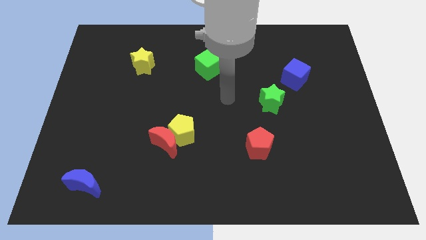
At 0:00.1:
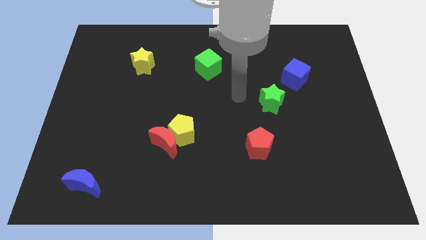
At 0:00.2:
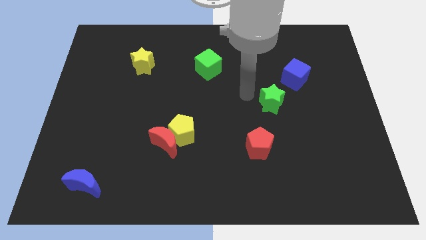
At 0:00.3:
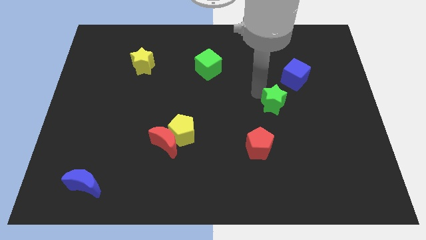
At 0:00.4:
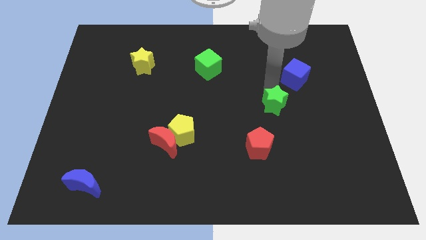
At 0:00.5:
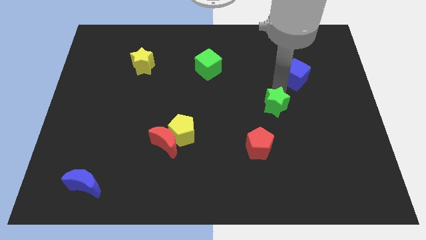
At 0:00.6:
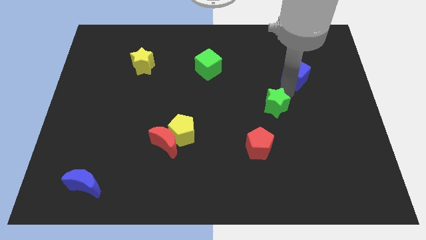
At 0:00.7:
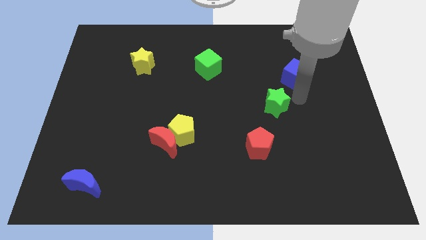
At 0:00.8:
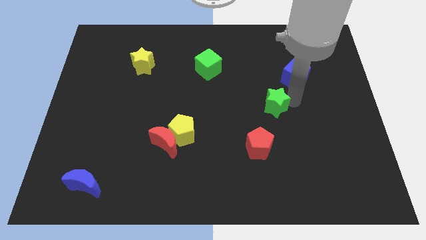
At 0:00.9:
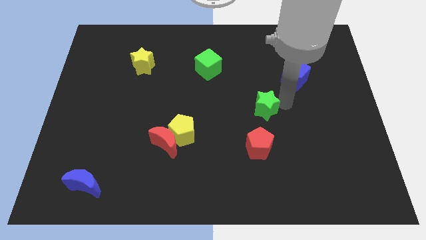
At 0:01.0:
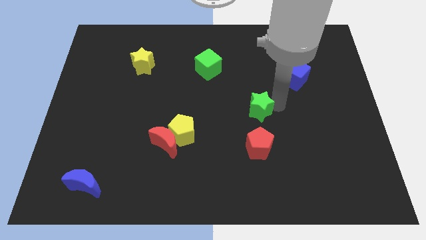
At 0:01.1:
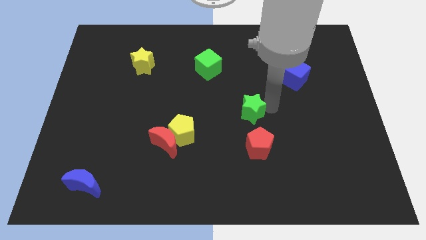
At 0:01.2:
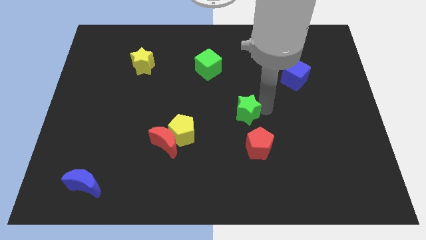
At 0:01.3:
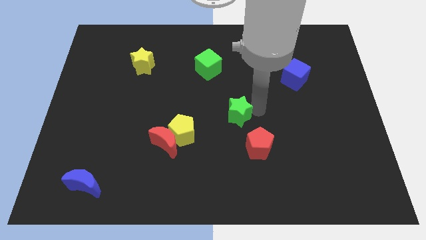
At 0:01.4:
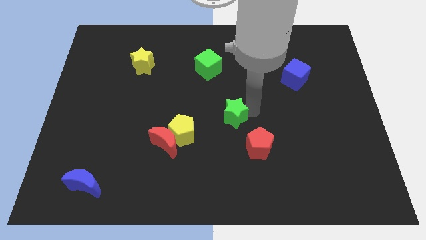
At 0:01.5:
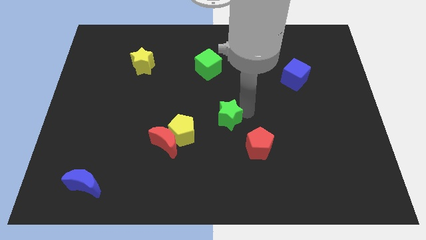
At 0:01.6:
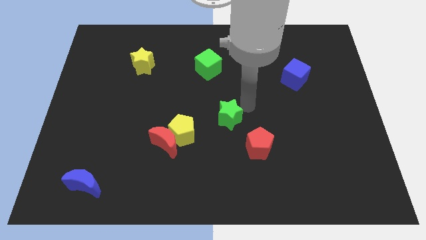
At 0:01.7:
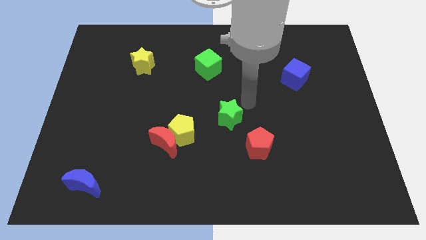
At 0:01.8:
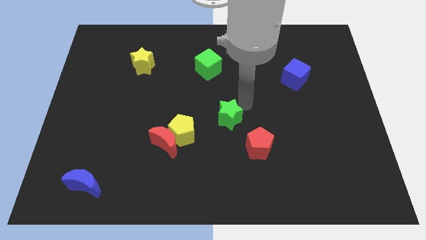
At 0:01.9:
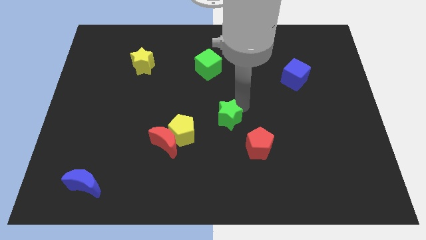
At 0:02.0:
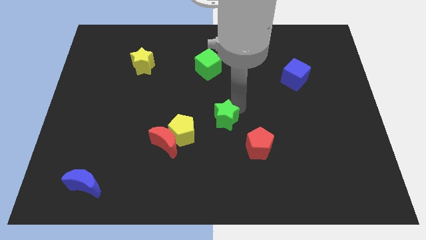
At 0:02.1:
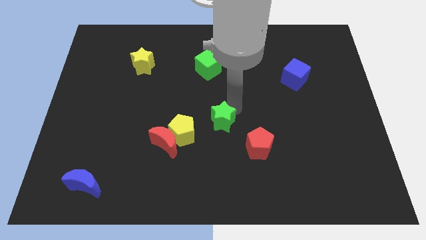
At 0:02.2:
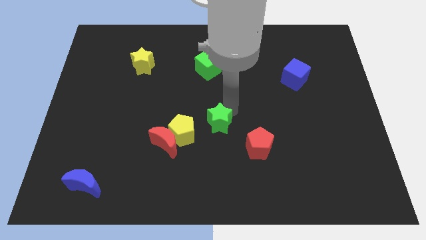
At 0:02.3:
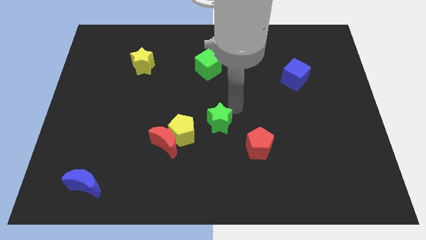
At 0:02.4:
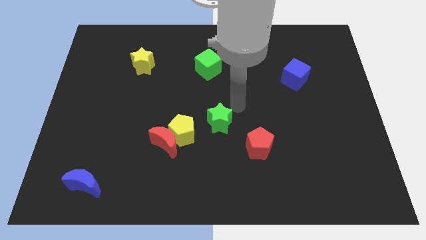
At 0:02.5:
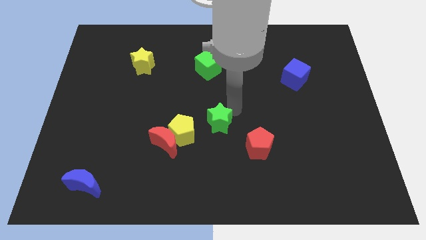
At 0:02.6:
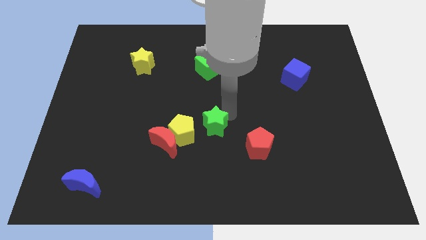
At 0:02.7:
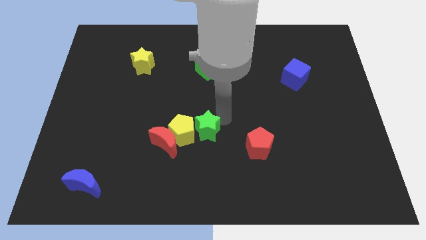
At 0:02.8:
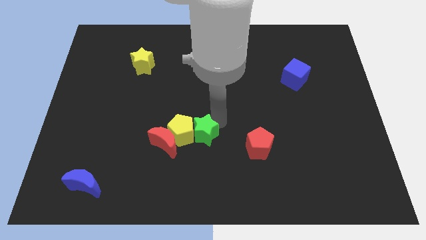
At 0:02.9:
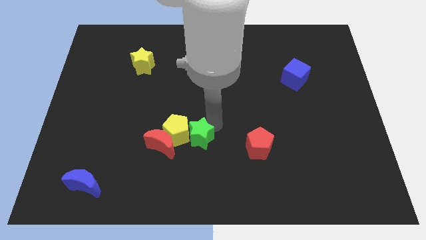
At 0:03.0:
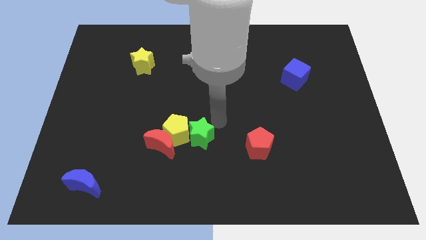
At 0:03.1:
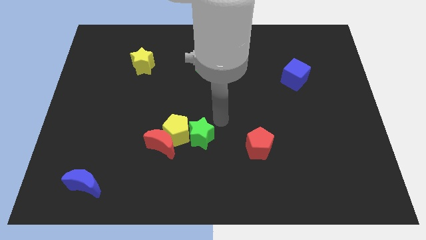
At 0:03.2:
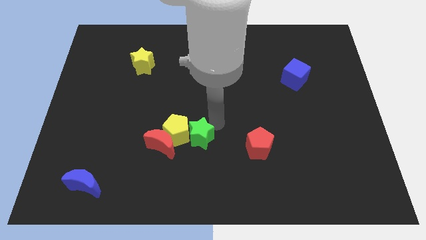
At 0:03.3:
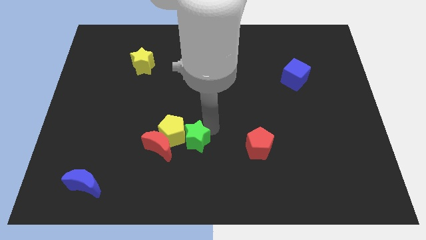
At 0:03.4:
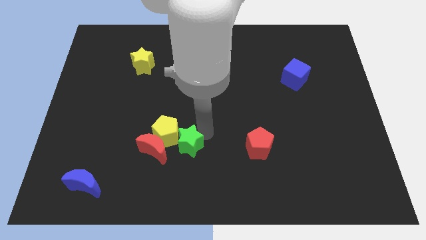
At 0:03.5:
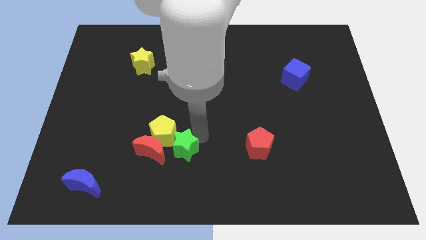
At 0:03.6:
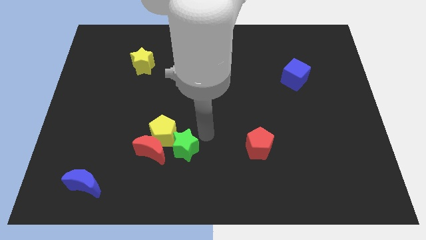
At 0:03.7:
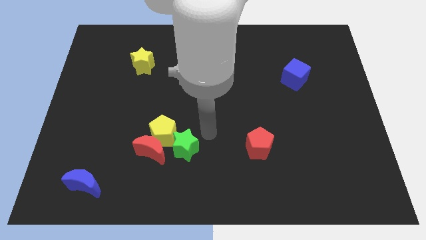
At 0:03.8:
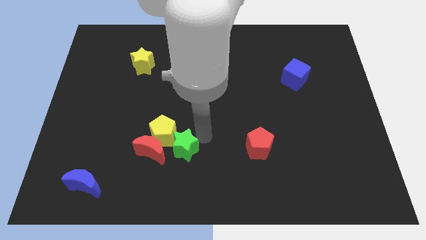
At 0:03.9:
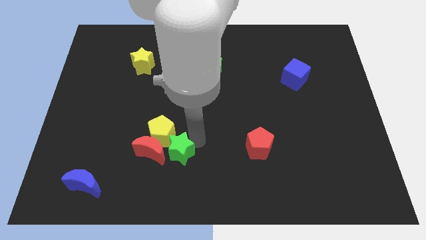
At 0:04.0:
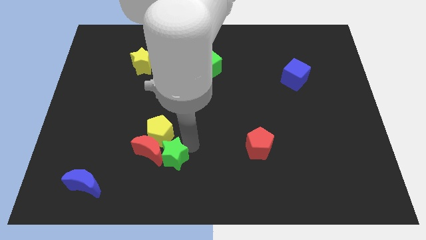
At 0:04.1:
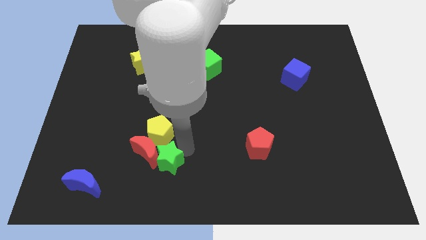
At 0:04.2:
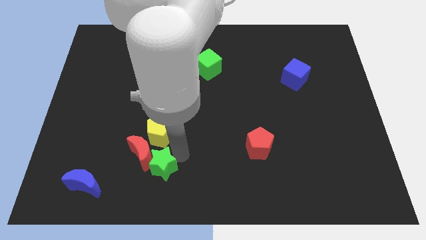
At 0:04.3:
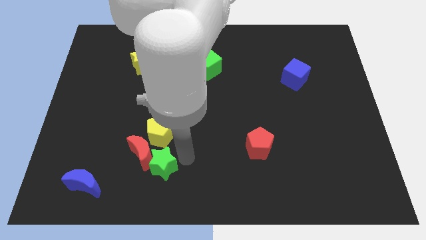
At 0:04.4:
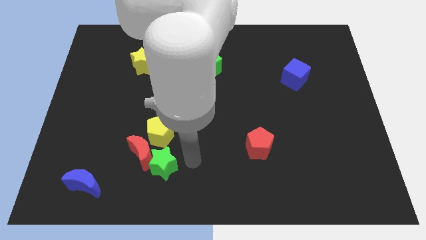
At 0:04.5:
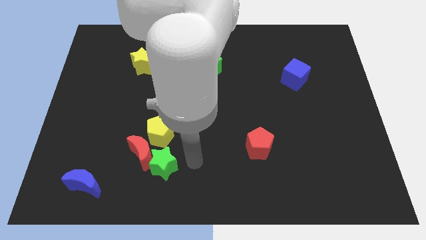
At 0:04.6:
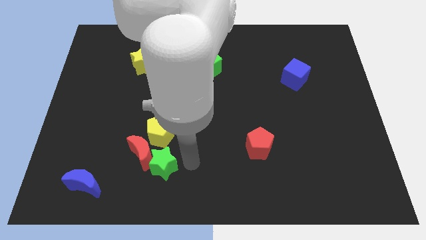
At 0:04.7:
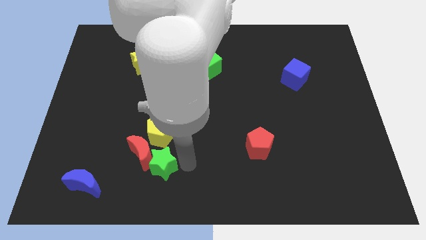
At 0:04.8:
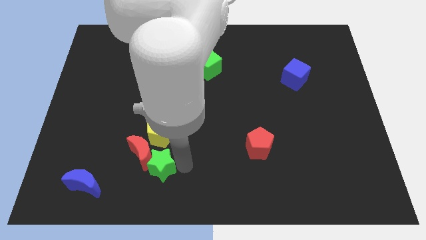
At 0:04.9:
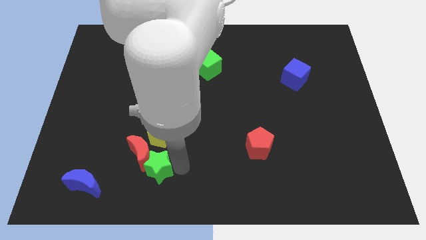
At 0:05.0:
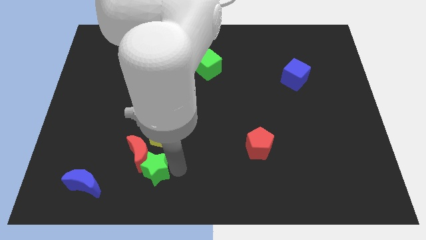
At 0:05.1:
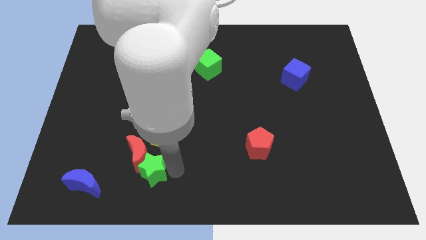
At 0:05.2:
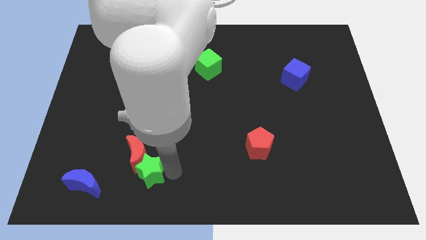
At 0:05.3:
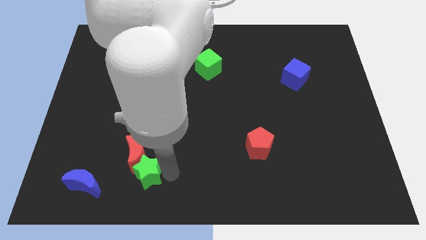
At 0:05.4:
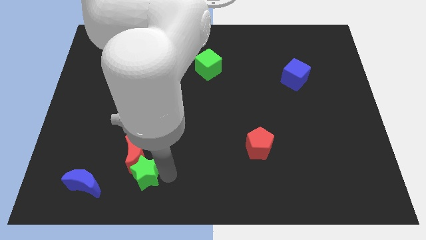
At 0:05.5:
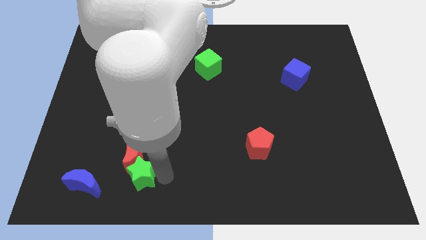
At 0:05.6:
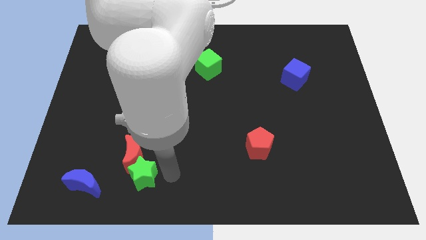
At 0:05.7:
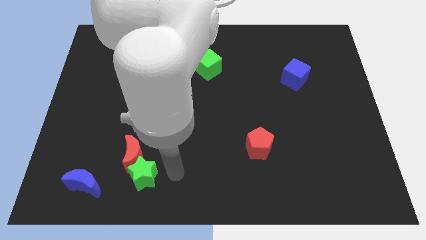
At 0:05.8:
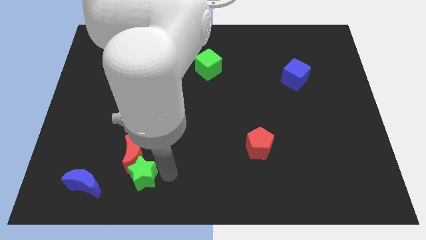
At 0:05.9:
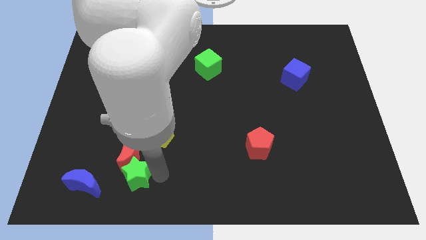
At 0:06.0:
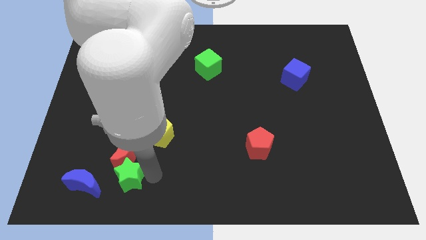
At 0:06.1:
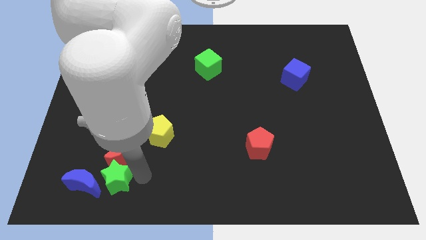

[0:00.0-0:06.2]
move the green star towards the blue moon
